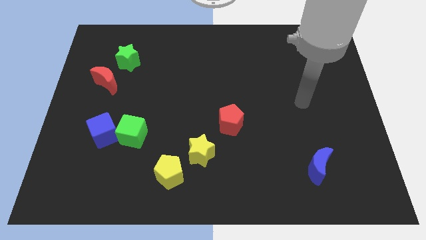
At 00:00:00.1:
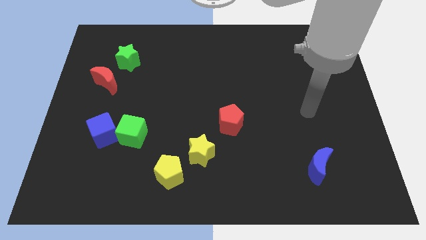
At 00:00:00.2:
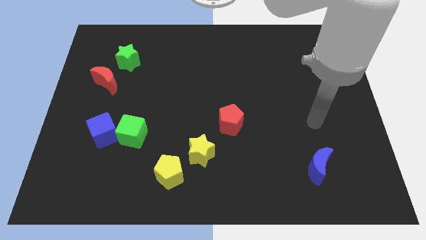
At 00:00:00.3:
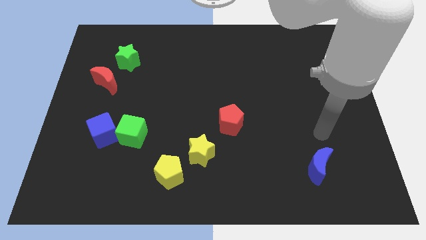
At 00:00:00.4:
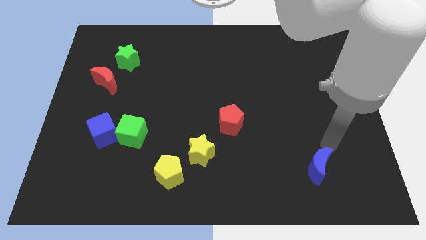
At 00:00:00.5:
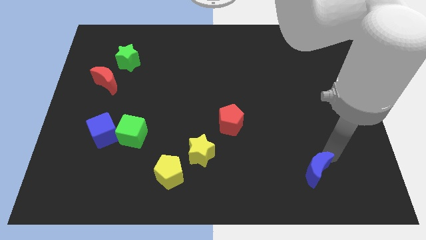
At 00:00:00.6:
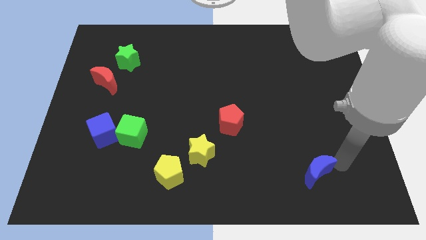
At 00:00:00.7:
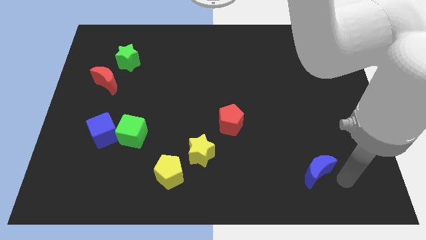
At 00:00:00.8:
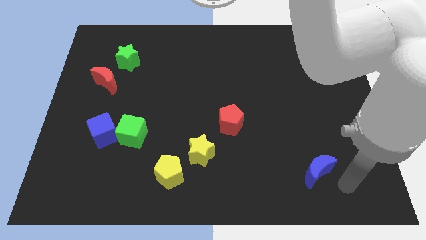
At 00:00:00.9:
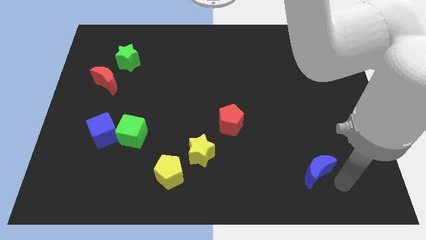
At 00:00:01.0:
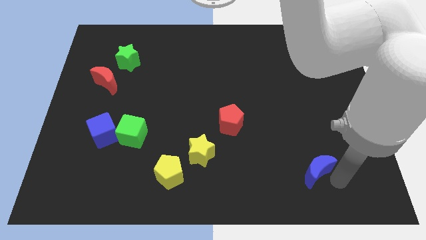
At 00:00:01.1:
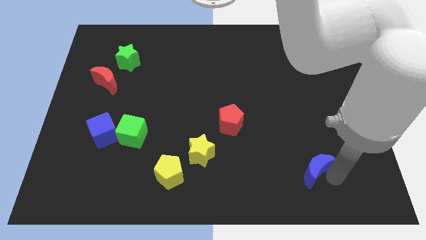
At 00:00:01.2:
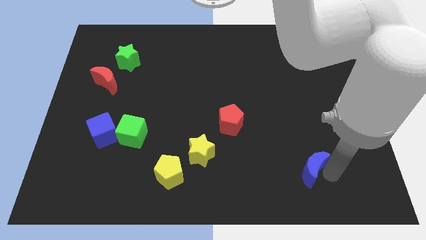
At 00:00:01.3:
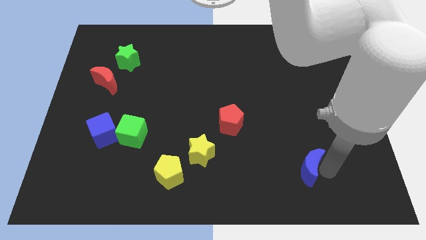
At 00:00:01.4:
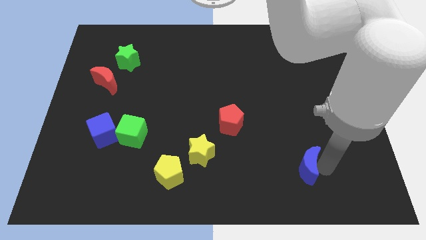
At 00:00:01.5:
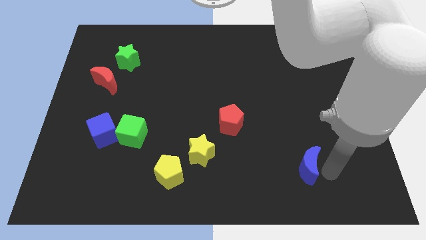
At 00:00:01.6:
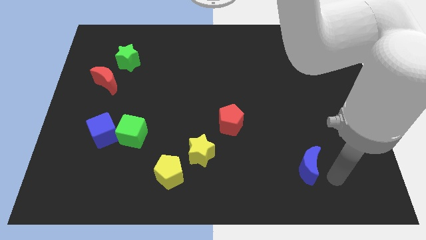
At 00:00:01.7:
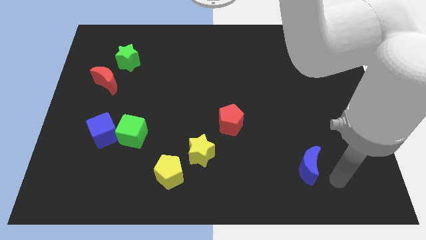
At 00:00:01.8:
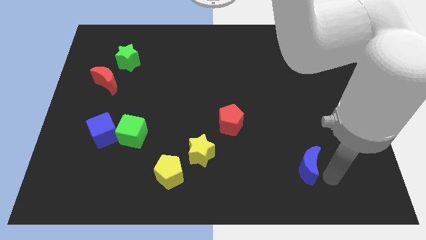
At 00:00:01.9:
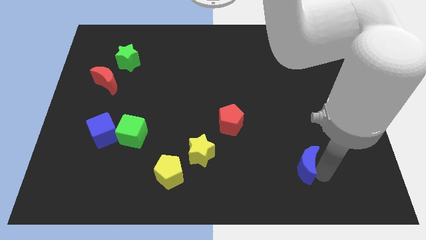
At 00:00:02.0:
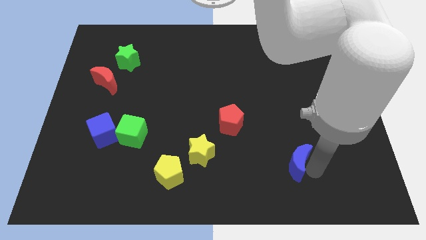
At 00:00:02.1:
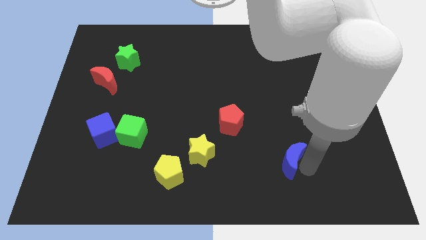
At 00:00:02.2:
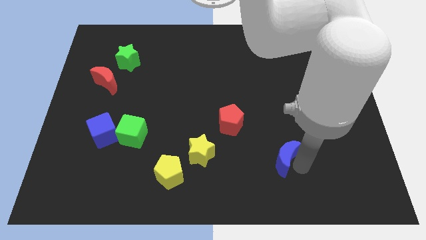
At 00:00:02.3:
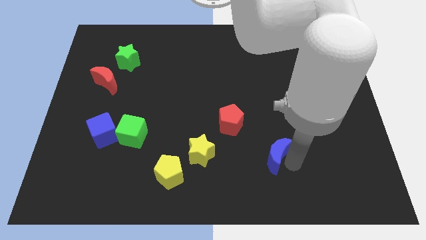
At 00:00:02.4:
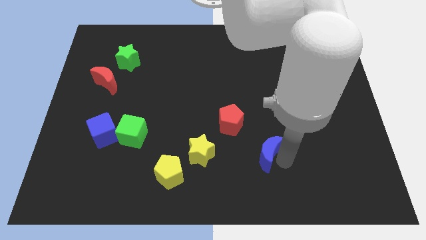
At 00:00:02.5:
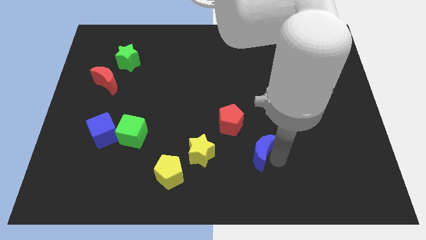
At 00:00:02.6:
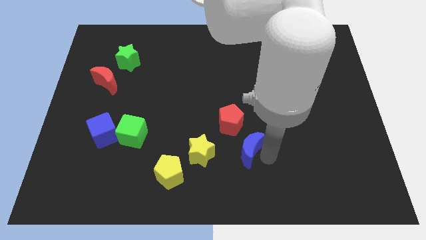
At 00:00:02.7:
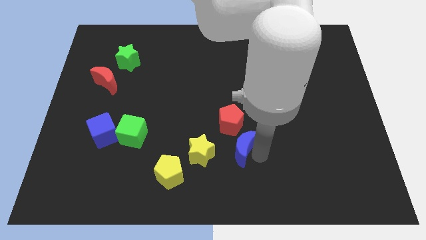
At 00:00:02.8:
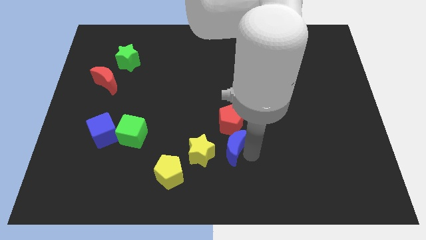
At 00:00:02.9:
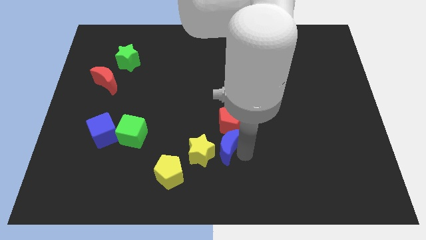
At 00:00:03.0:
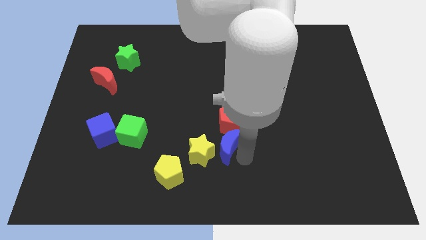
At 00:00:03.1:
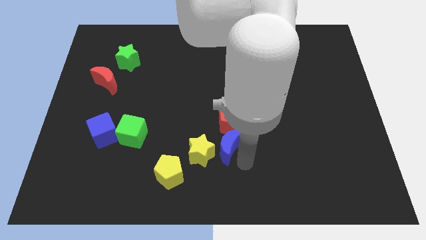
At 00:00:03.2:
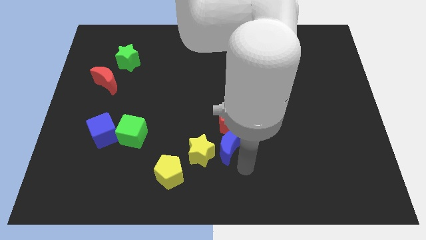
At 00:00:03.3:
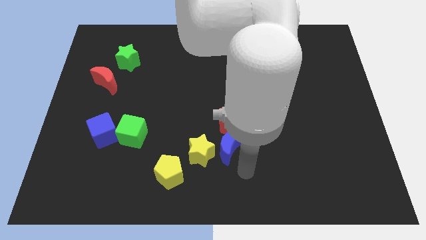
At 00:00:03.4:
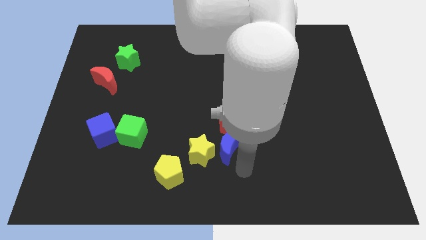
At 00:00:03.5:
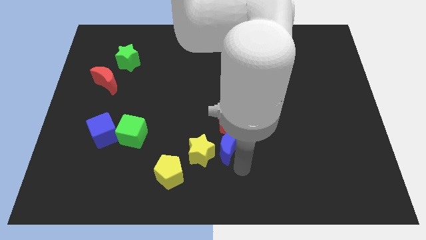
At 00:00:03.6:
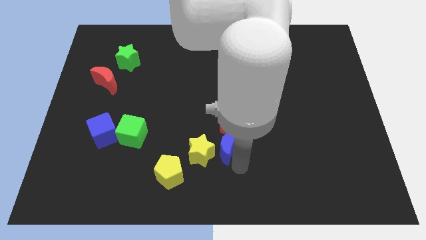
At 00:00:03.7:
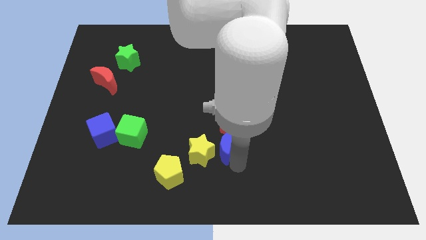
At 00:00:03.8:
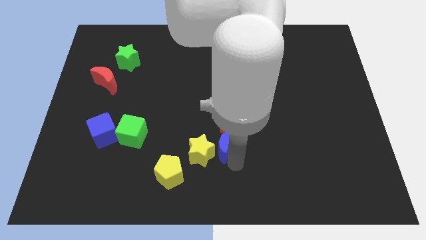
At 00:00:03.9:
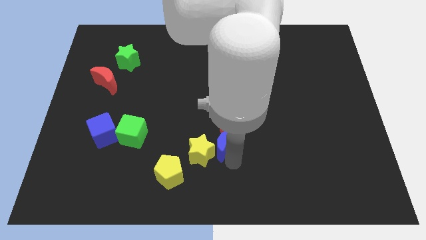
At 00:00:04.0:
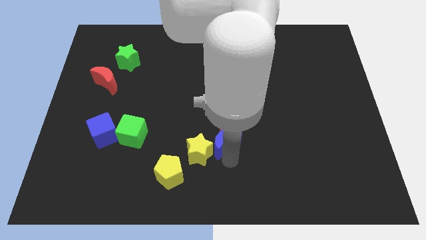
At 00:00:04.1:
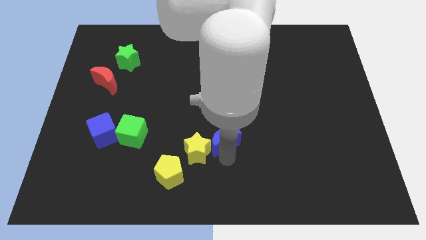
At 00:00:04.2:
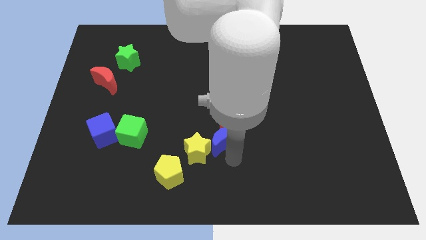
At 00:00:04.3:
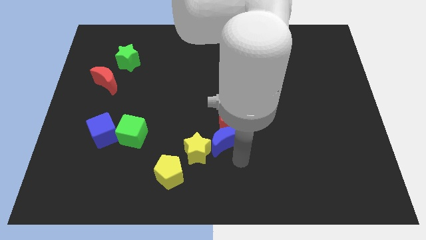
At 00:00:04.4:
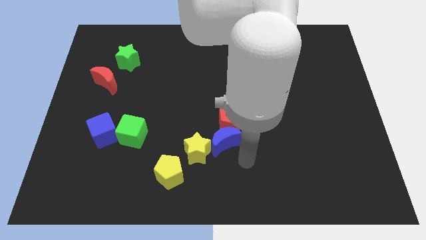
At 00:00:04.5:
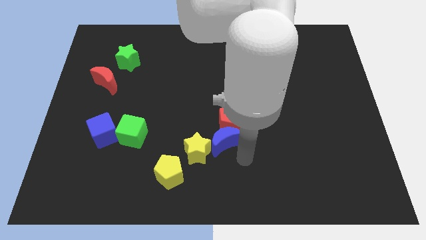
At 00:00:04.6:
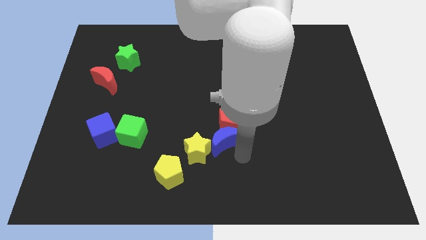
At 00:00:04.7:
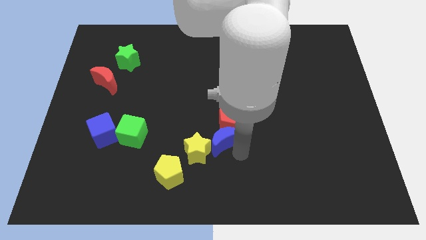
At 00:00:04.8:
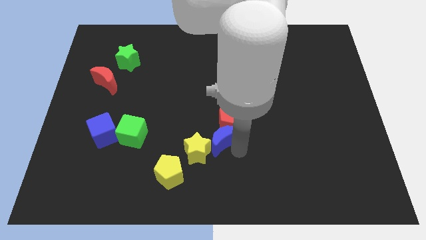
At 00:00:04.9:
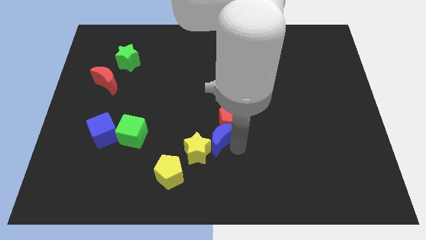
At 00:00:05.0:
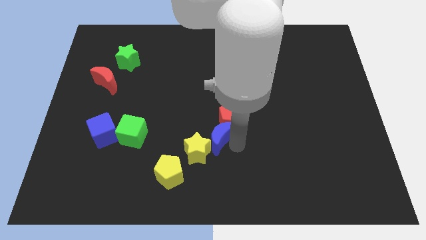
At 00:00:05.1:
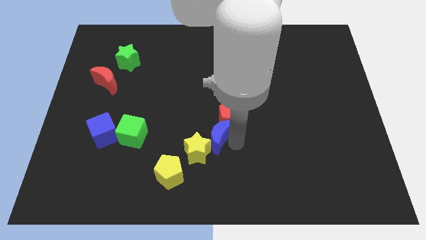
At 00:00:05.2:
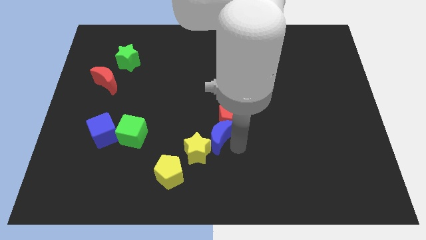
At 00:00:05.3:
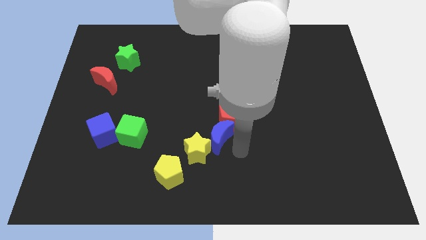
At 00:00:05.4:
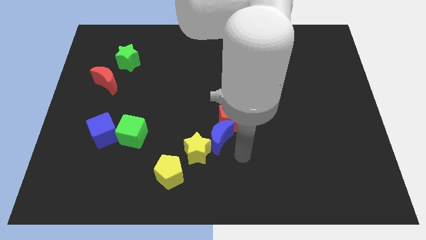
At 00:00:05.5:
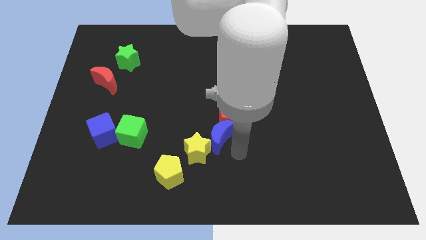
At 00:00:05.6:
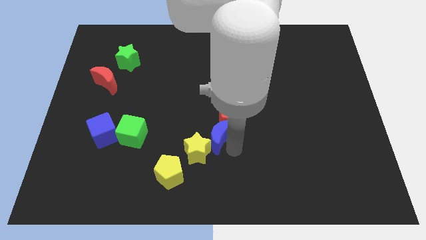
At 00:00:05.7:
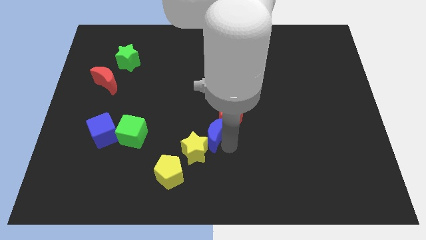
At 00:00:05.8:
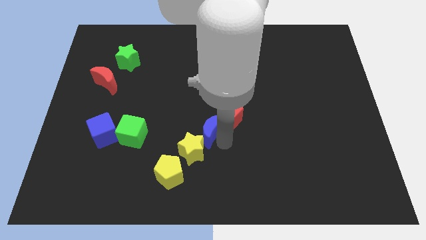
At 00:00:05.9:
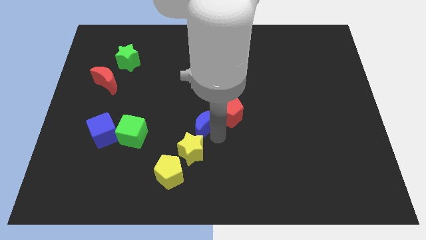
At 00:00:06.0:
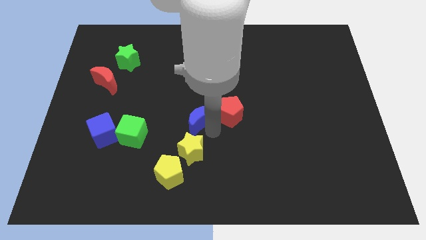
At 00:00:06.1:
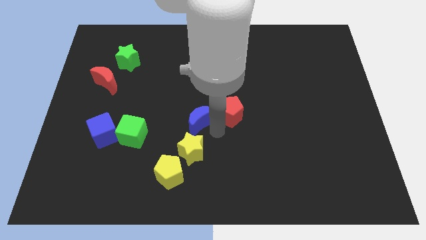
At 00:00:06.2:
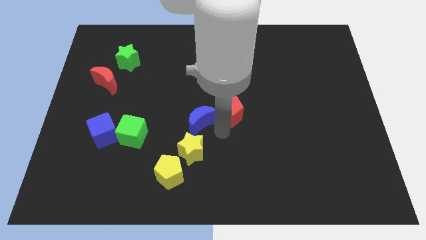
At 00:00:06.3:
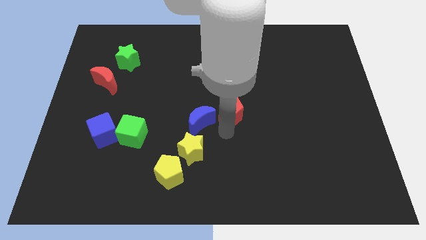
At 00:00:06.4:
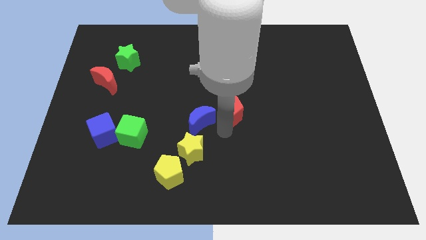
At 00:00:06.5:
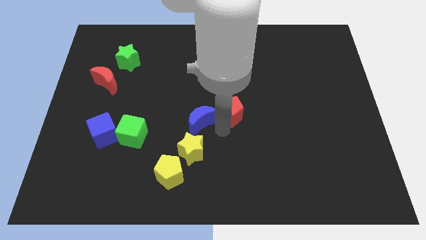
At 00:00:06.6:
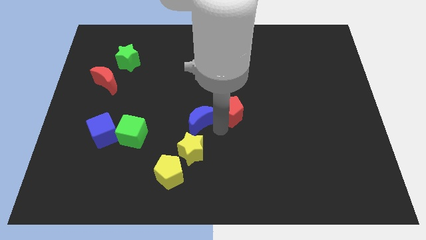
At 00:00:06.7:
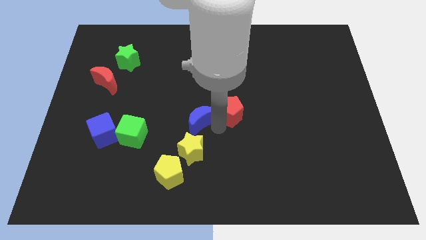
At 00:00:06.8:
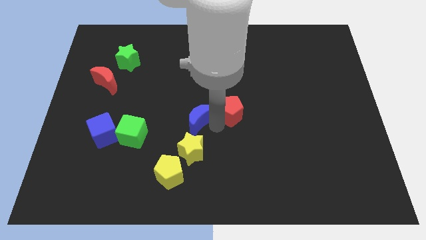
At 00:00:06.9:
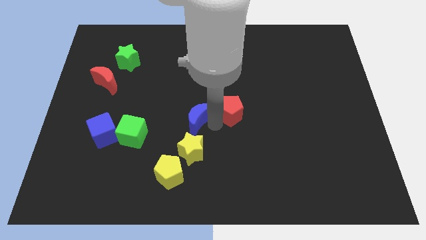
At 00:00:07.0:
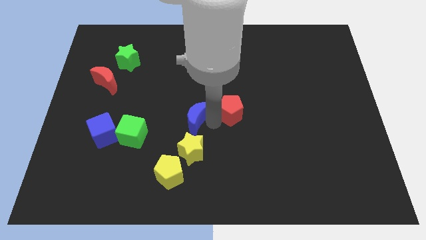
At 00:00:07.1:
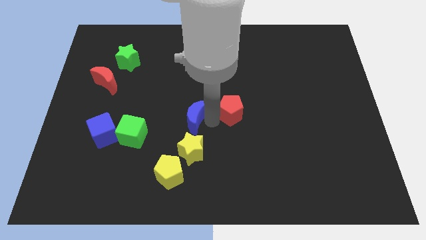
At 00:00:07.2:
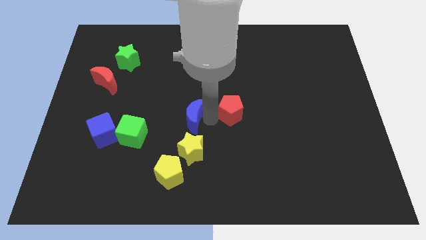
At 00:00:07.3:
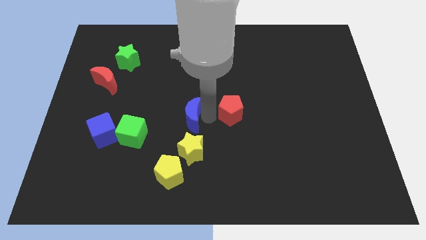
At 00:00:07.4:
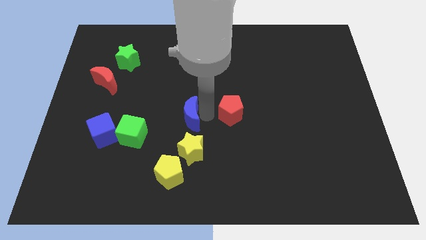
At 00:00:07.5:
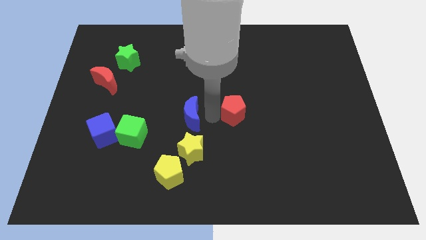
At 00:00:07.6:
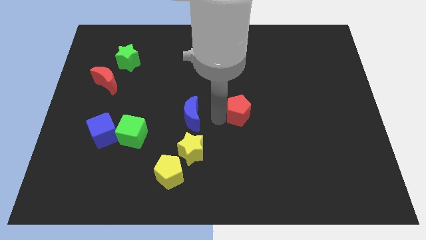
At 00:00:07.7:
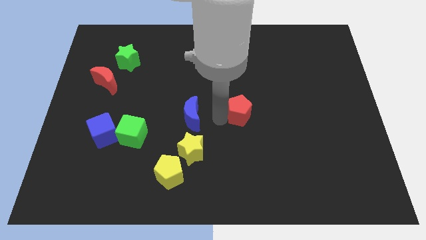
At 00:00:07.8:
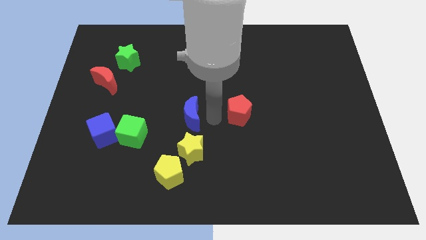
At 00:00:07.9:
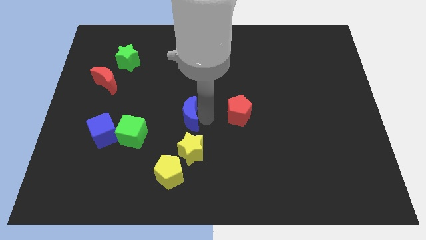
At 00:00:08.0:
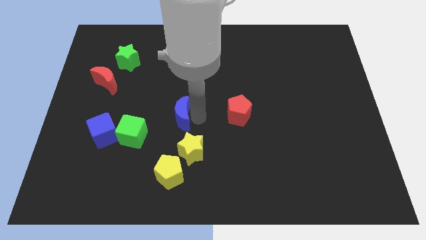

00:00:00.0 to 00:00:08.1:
move the blue moon to the top right side of the green cube
